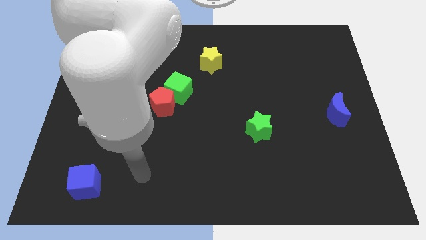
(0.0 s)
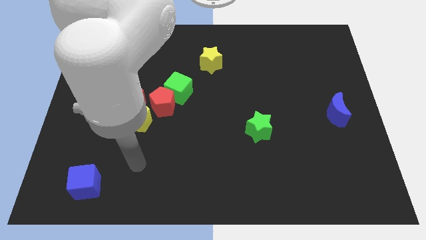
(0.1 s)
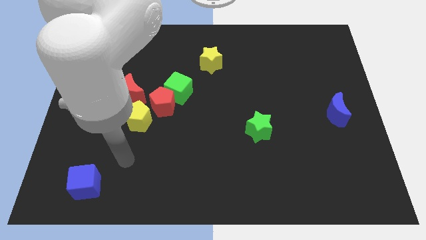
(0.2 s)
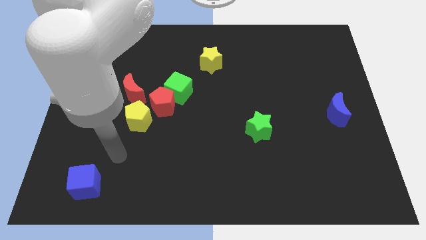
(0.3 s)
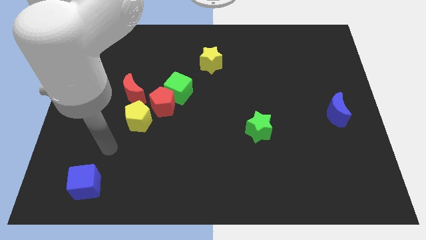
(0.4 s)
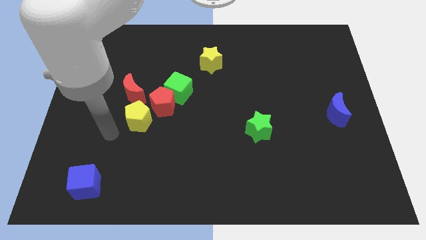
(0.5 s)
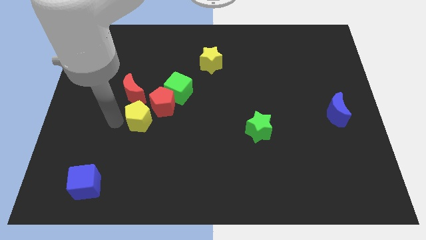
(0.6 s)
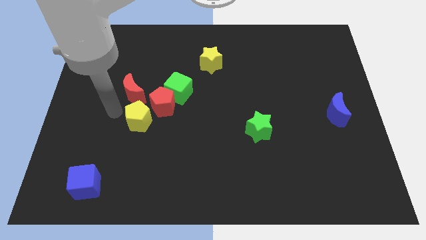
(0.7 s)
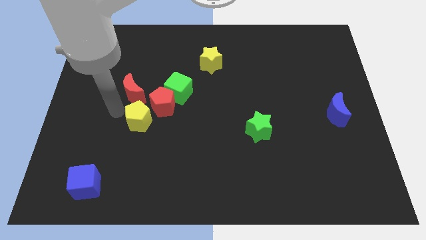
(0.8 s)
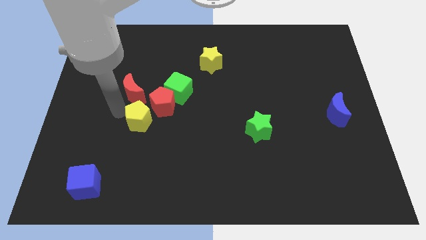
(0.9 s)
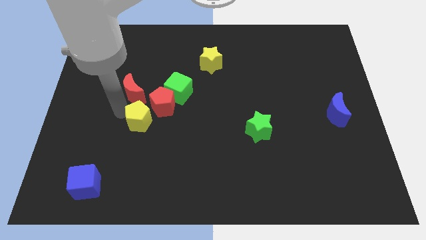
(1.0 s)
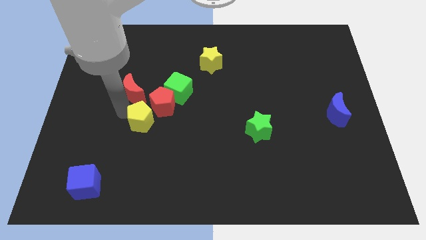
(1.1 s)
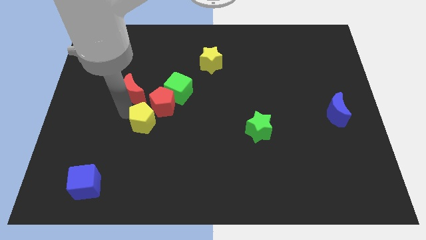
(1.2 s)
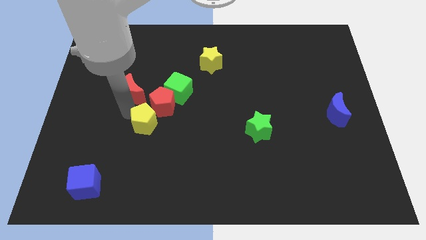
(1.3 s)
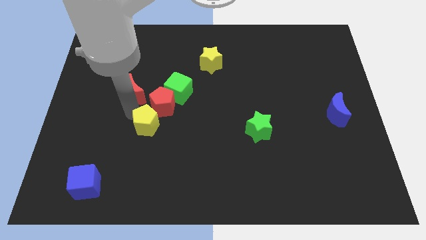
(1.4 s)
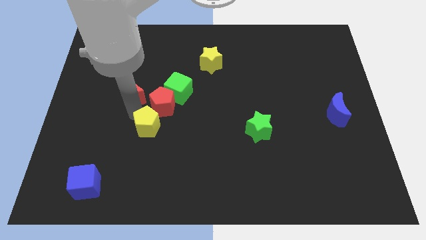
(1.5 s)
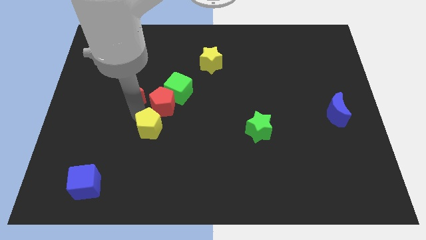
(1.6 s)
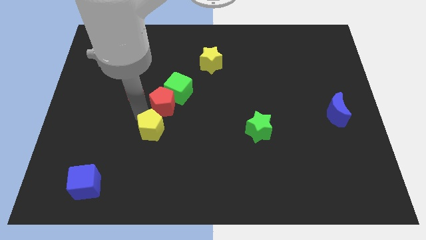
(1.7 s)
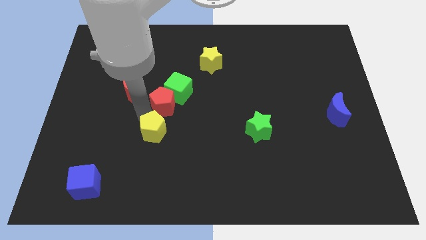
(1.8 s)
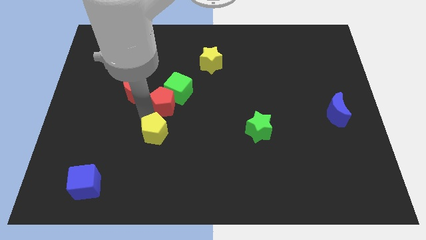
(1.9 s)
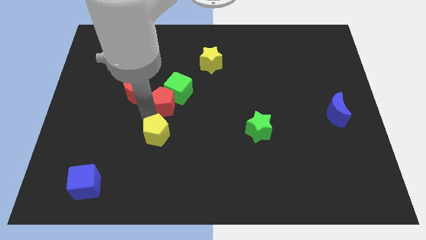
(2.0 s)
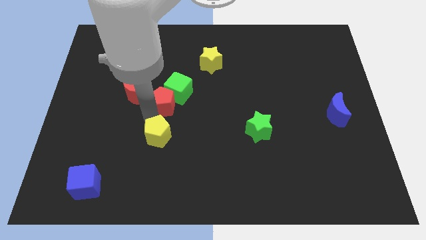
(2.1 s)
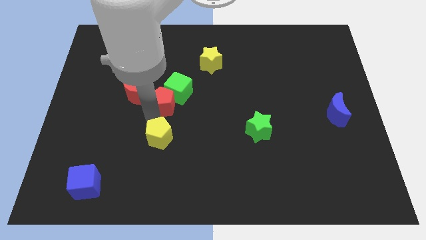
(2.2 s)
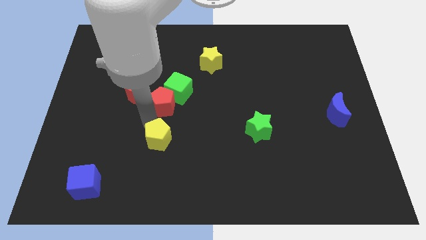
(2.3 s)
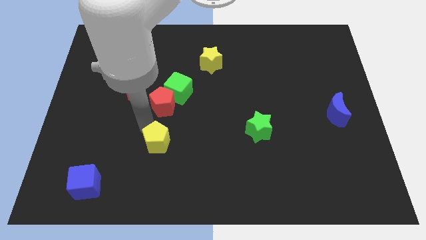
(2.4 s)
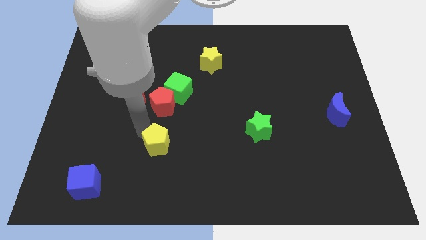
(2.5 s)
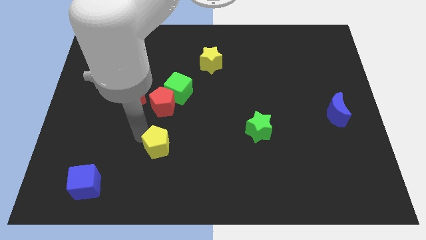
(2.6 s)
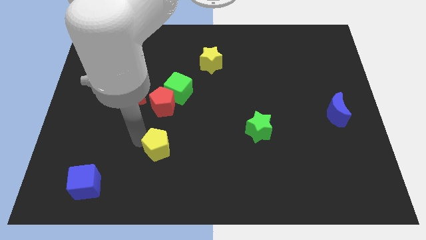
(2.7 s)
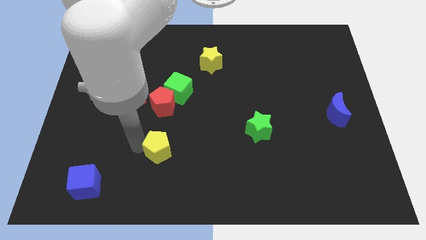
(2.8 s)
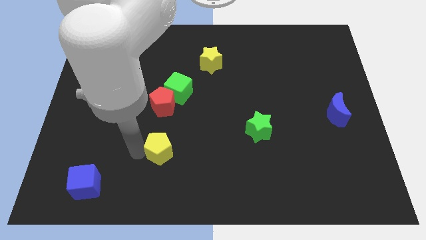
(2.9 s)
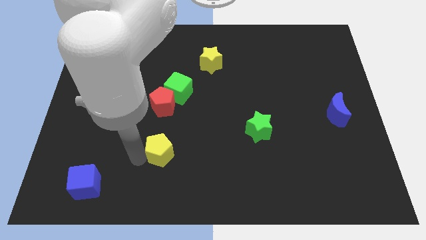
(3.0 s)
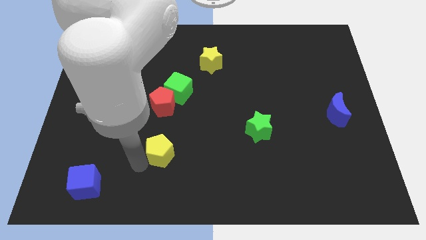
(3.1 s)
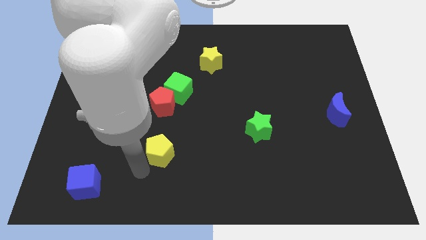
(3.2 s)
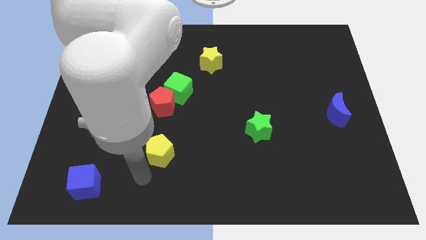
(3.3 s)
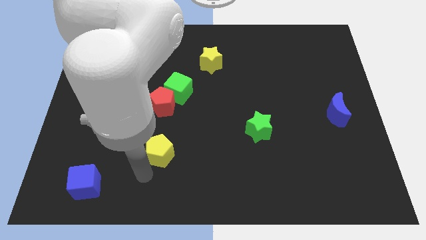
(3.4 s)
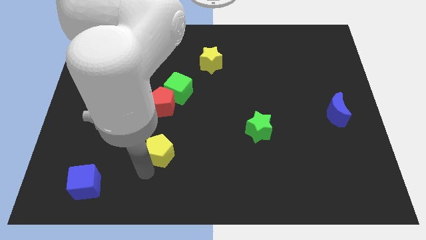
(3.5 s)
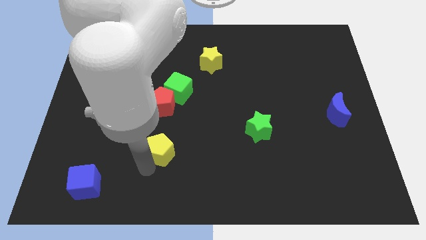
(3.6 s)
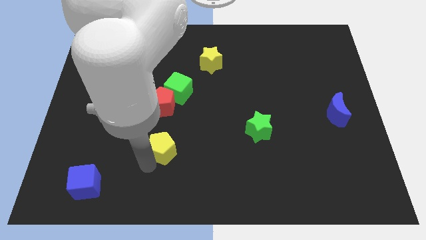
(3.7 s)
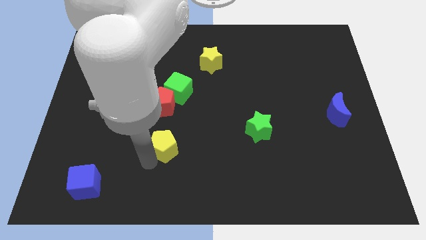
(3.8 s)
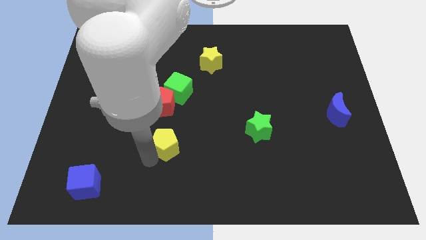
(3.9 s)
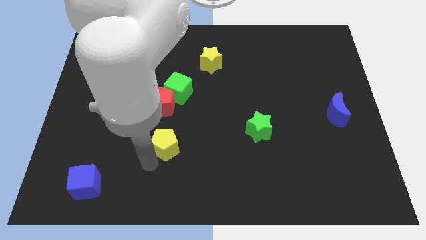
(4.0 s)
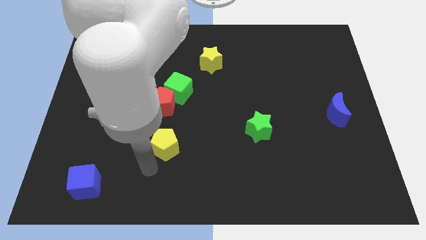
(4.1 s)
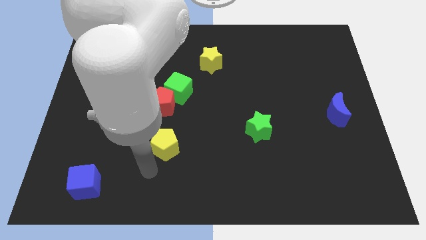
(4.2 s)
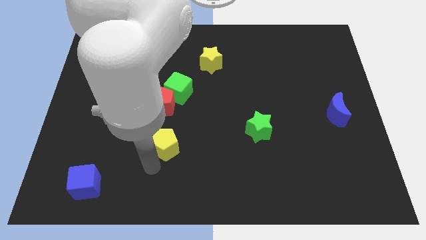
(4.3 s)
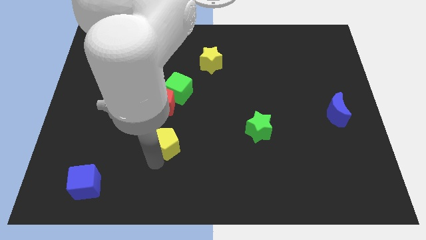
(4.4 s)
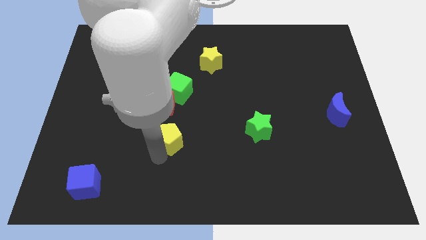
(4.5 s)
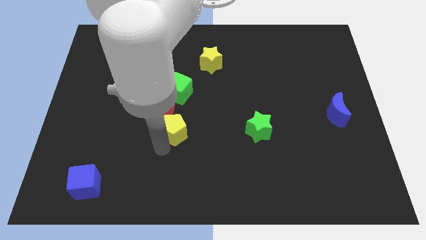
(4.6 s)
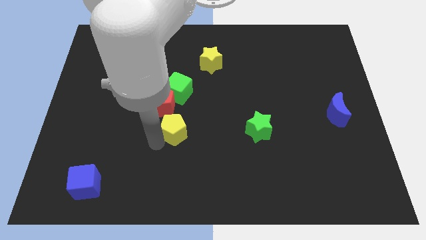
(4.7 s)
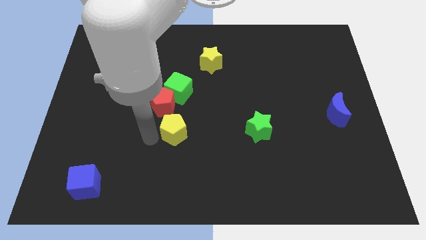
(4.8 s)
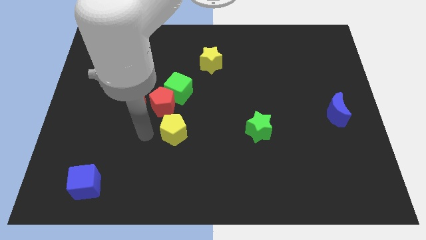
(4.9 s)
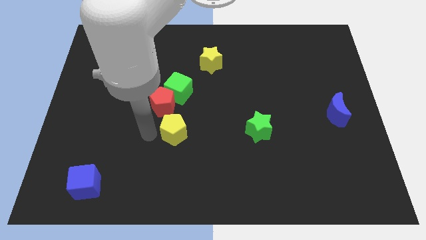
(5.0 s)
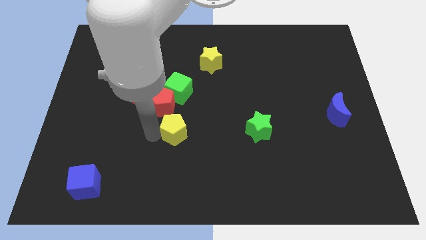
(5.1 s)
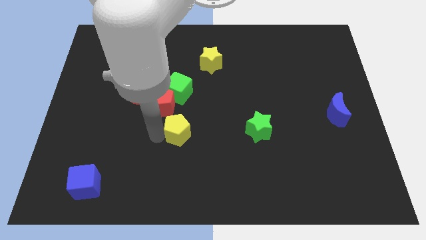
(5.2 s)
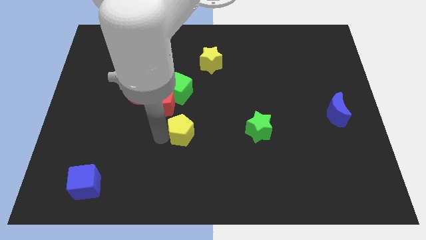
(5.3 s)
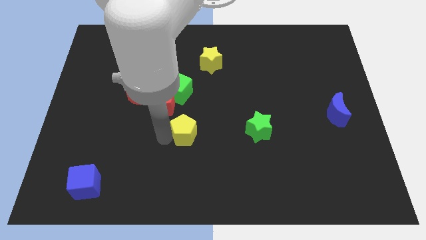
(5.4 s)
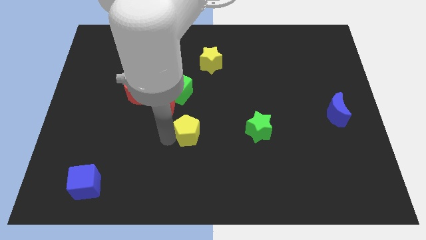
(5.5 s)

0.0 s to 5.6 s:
move the yellow pentagon left of the green star

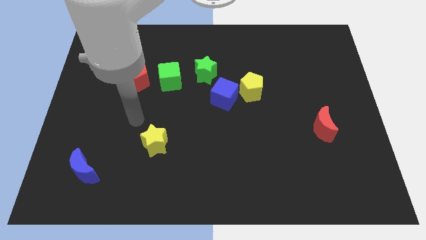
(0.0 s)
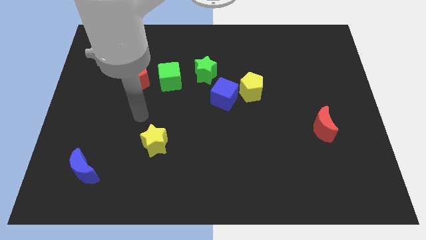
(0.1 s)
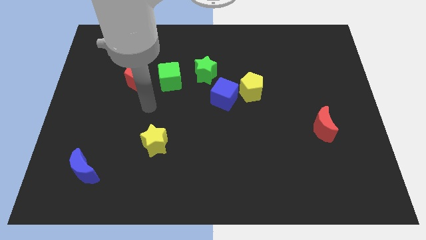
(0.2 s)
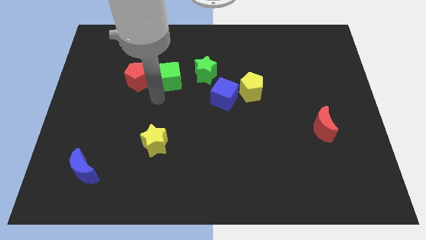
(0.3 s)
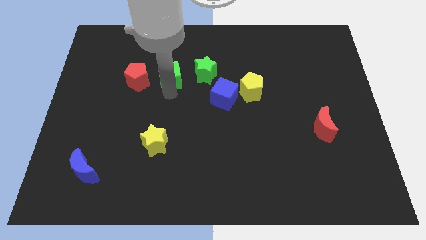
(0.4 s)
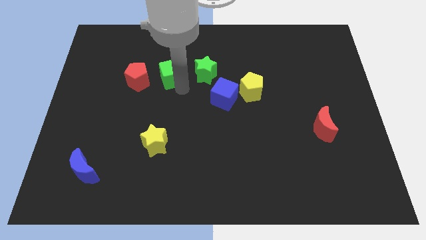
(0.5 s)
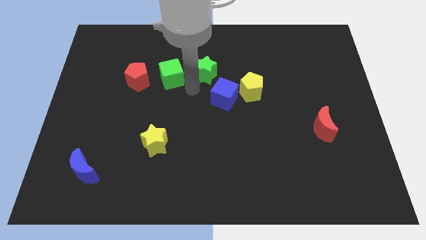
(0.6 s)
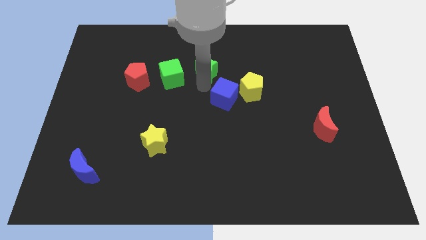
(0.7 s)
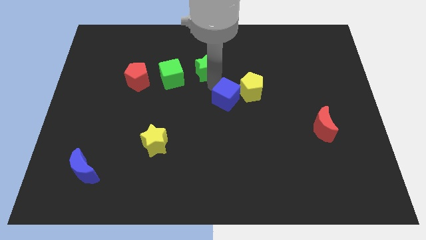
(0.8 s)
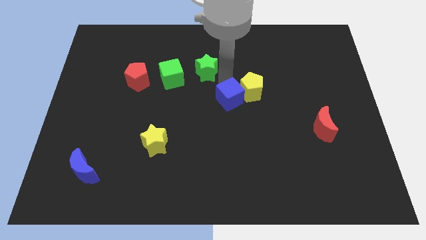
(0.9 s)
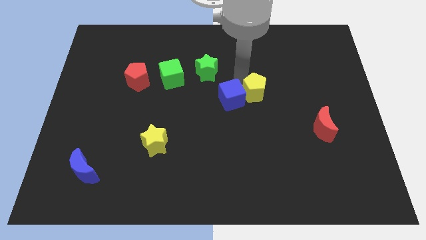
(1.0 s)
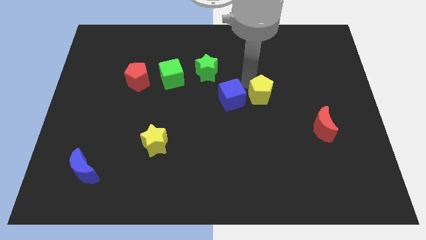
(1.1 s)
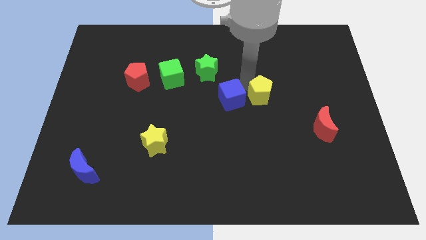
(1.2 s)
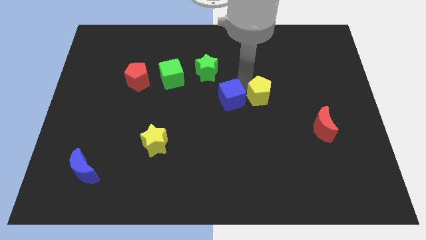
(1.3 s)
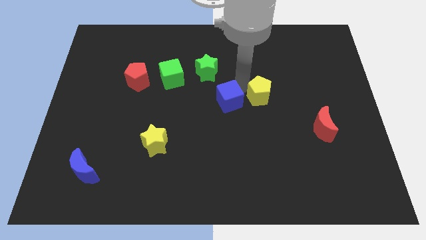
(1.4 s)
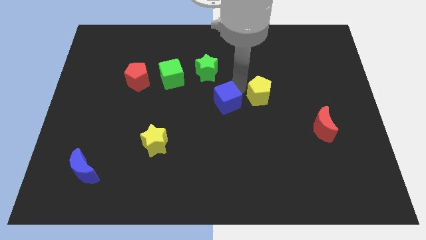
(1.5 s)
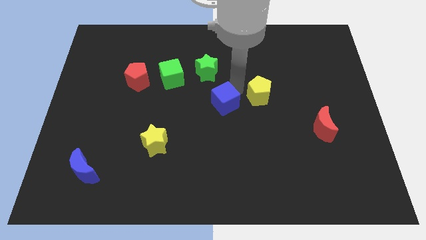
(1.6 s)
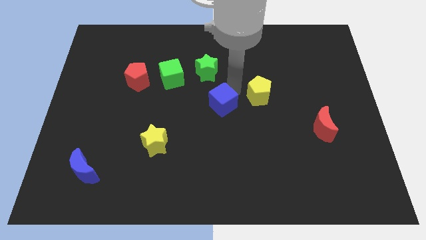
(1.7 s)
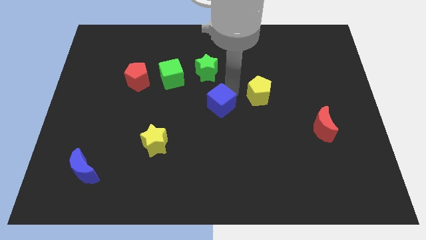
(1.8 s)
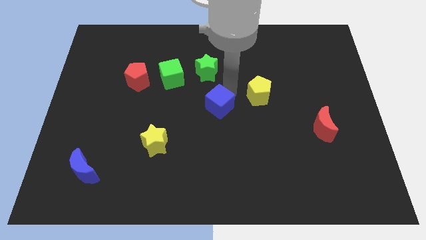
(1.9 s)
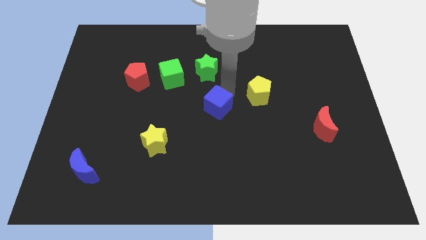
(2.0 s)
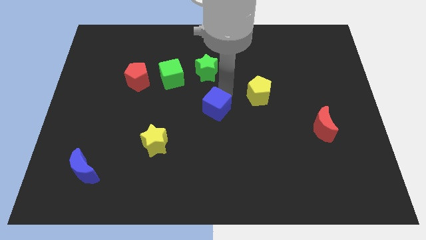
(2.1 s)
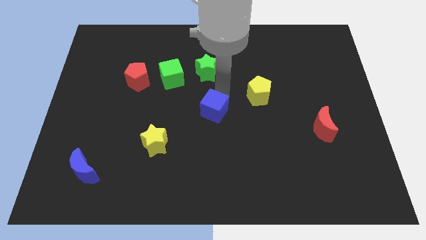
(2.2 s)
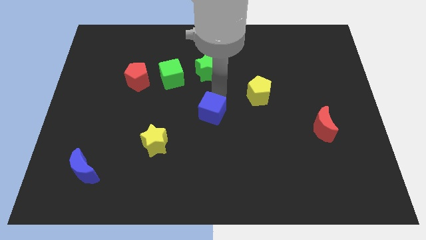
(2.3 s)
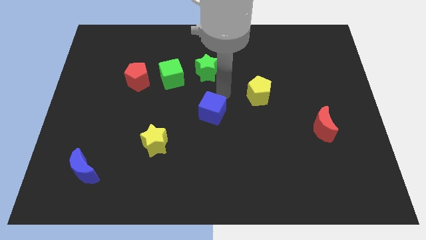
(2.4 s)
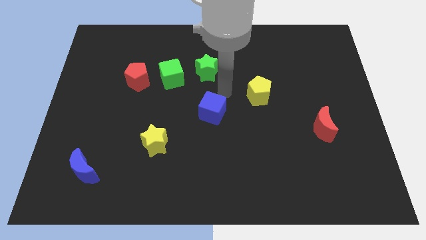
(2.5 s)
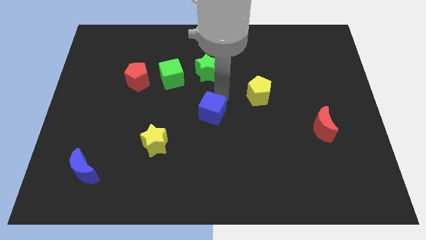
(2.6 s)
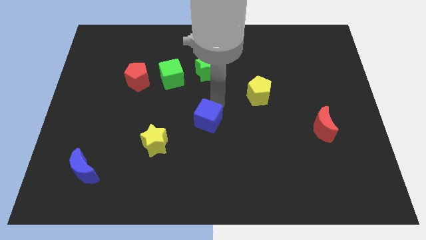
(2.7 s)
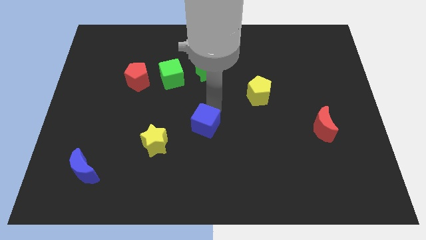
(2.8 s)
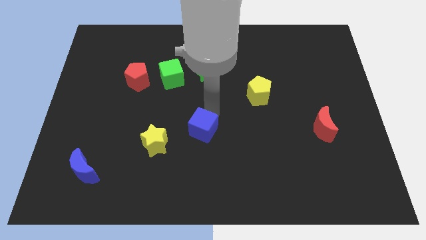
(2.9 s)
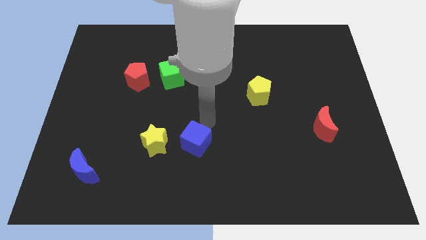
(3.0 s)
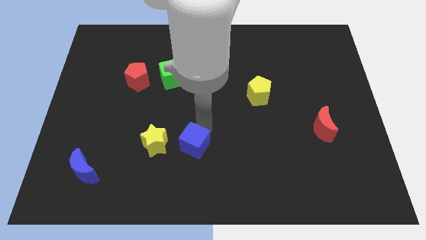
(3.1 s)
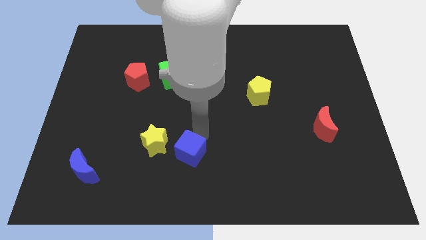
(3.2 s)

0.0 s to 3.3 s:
slide the blue cube diagonally down and to the right of the yellow star
